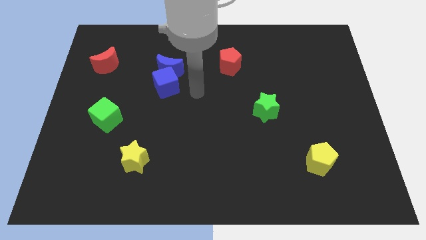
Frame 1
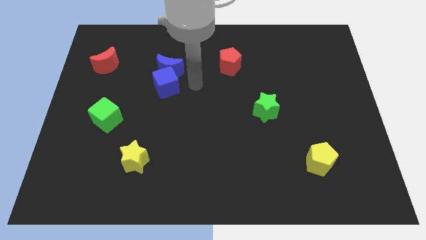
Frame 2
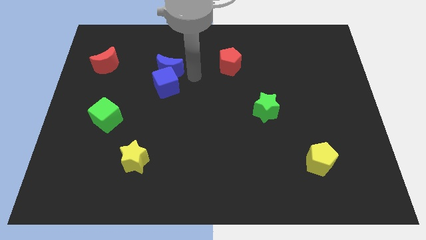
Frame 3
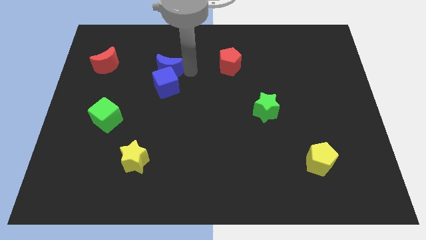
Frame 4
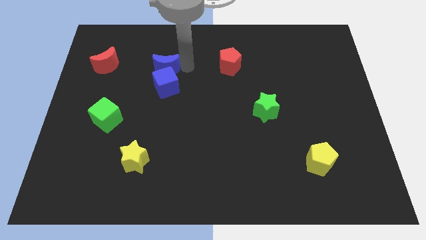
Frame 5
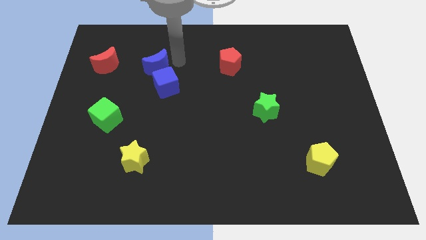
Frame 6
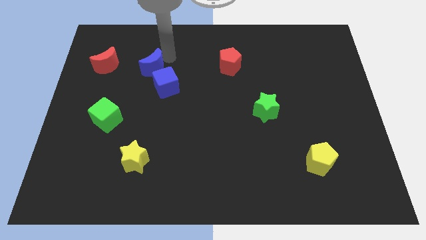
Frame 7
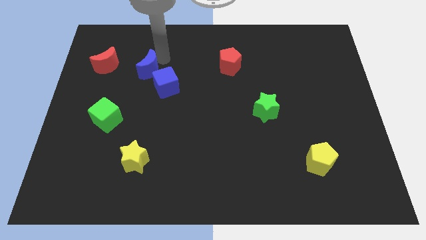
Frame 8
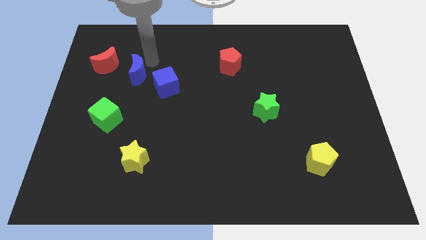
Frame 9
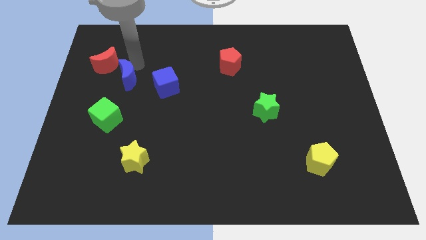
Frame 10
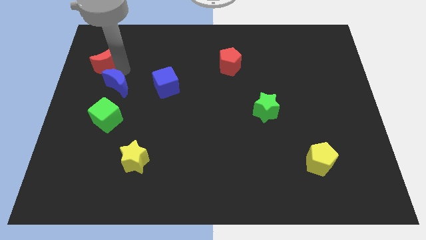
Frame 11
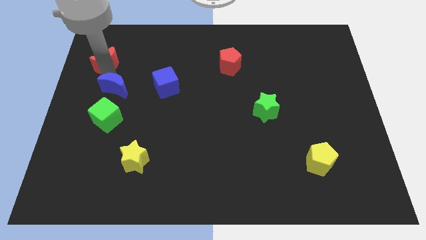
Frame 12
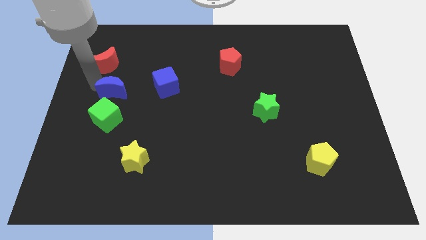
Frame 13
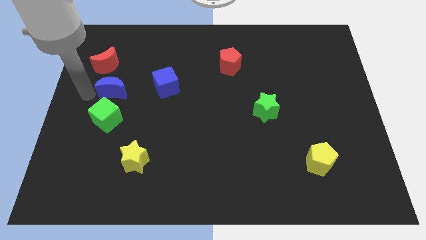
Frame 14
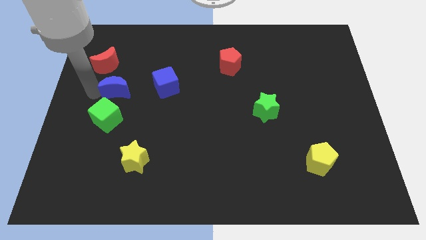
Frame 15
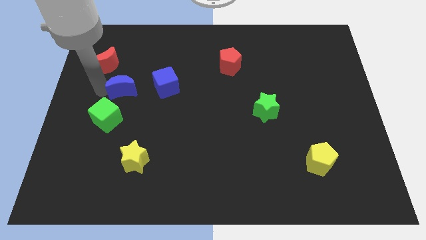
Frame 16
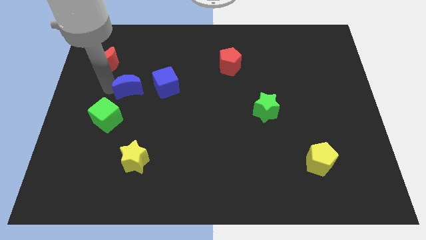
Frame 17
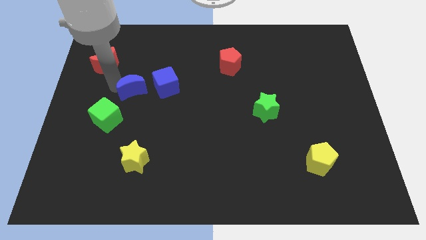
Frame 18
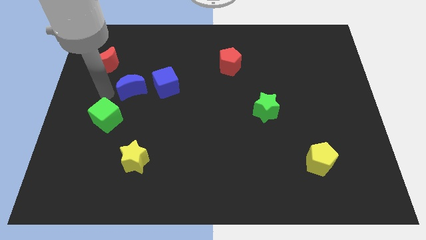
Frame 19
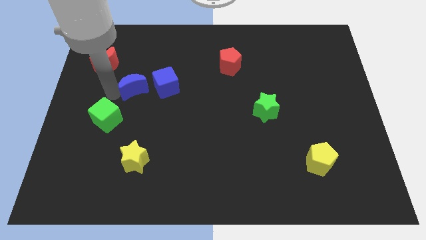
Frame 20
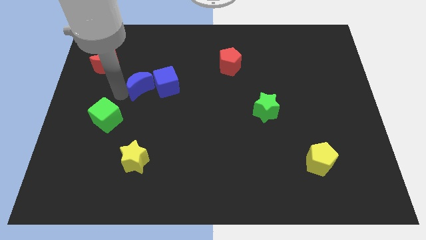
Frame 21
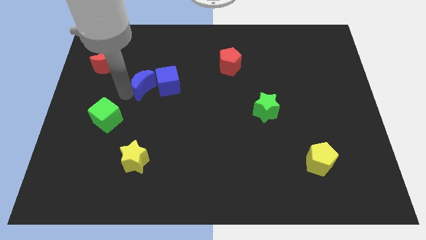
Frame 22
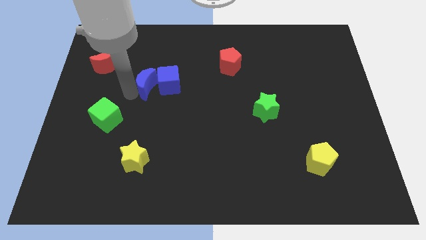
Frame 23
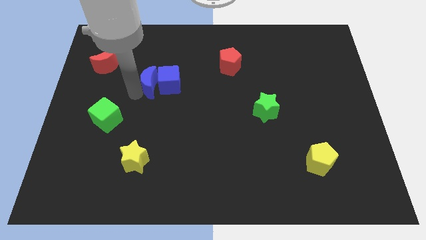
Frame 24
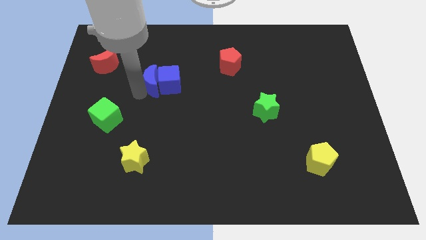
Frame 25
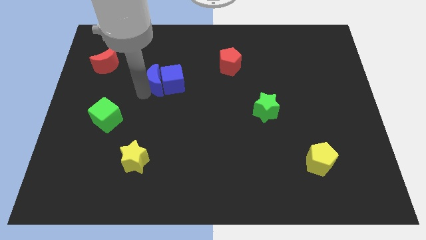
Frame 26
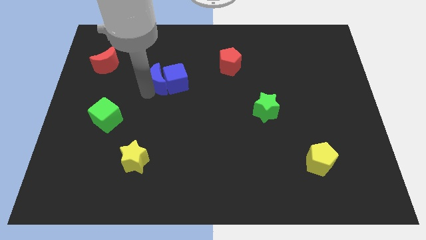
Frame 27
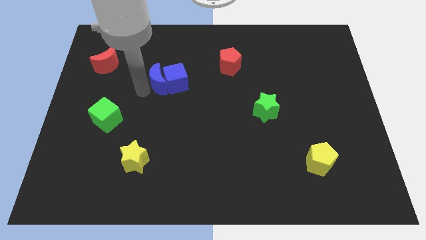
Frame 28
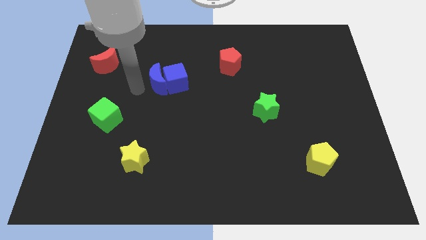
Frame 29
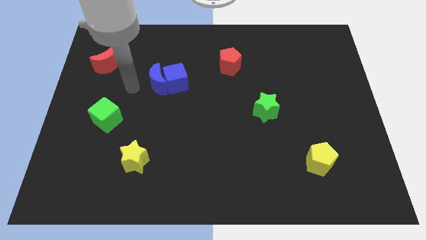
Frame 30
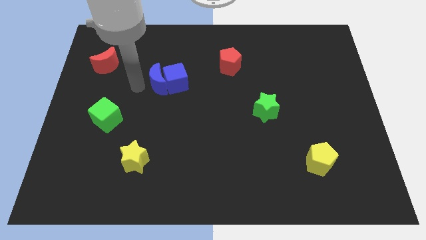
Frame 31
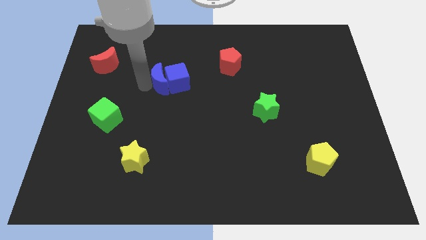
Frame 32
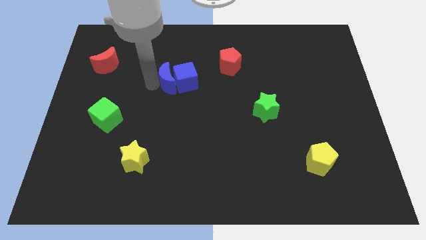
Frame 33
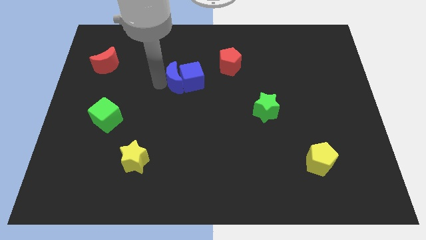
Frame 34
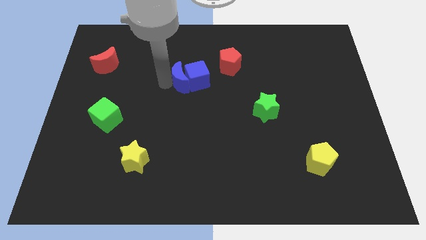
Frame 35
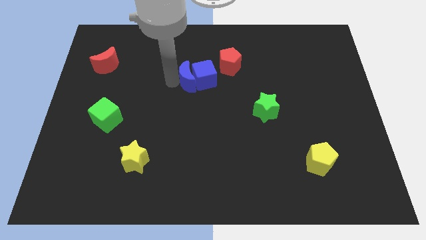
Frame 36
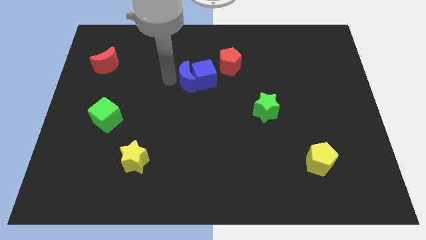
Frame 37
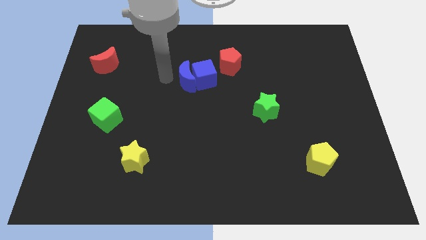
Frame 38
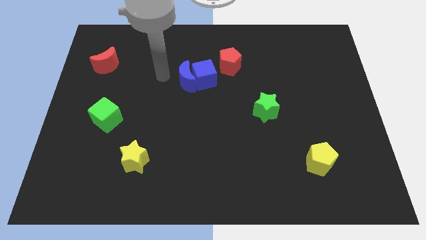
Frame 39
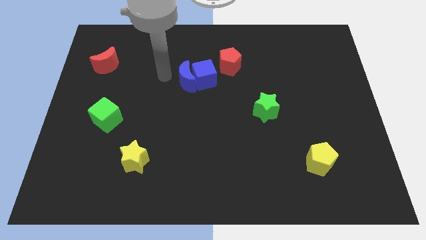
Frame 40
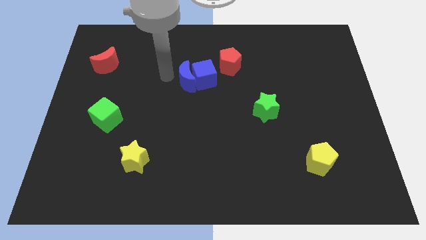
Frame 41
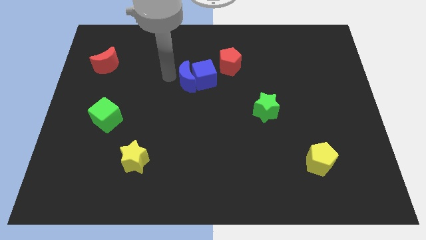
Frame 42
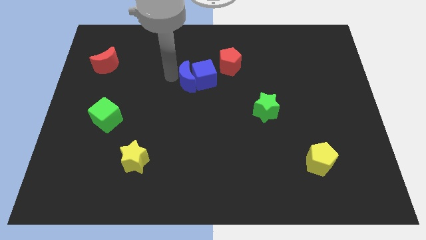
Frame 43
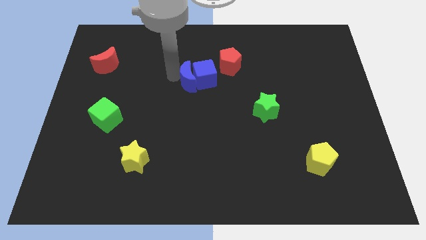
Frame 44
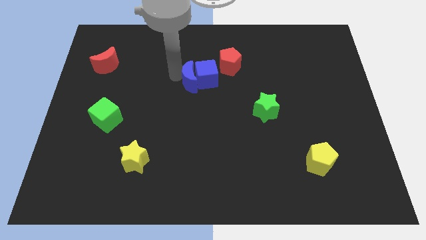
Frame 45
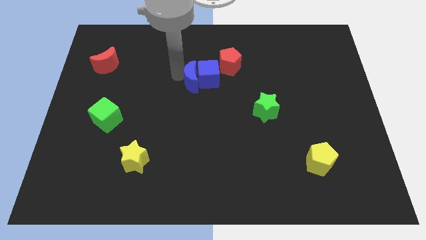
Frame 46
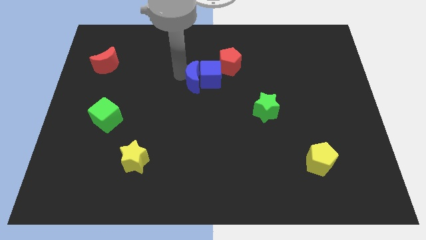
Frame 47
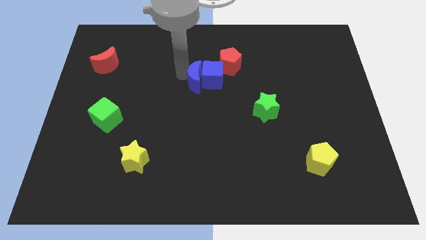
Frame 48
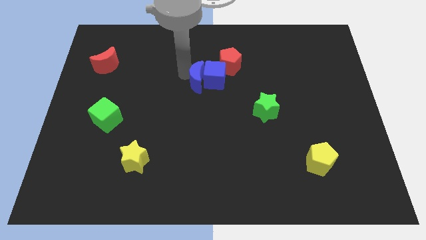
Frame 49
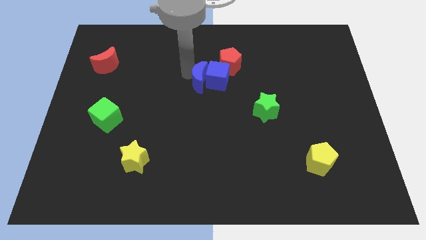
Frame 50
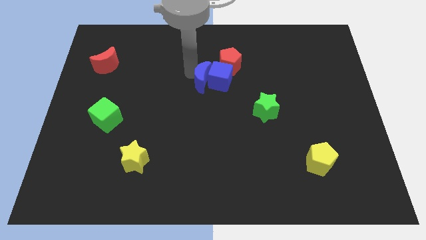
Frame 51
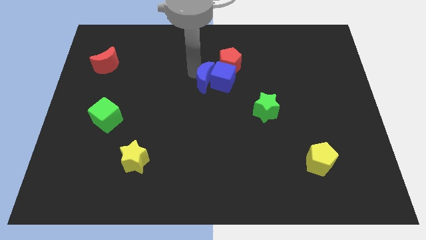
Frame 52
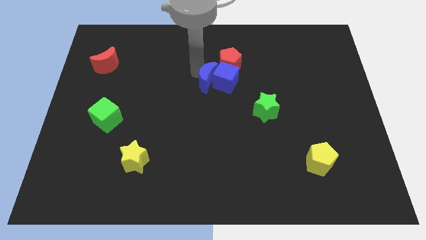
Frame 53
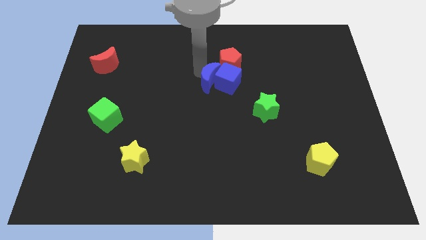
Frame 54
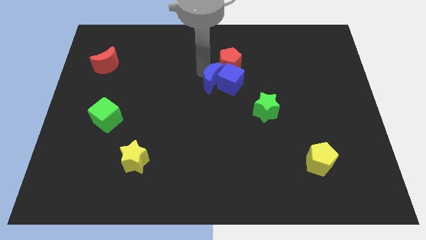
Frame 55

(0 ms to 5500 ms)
slide the blue moon below the red pentagon

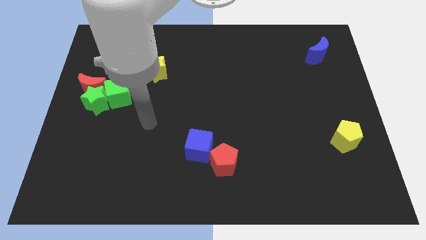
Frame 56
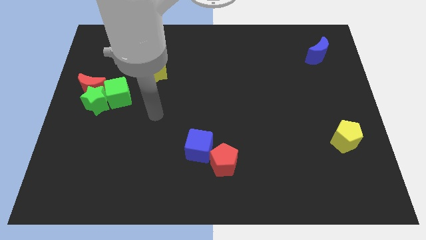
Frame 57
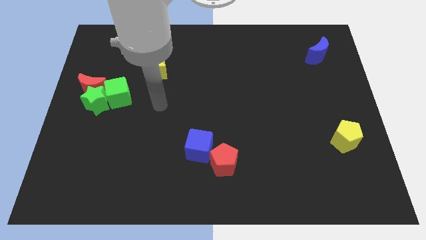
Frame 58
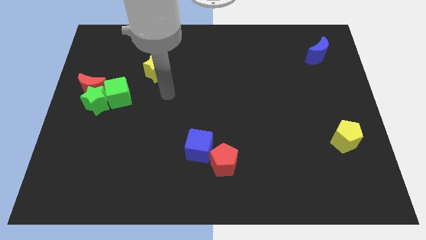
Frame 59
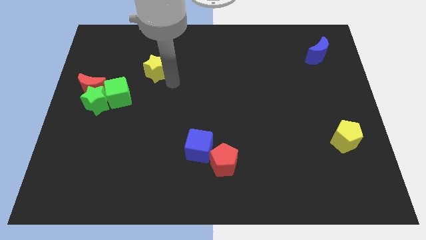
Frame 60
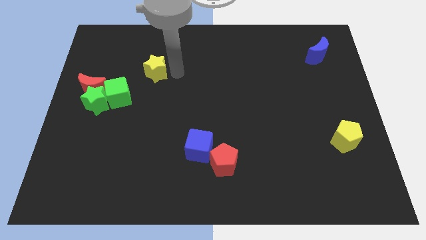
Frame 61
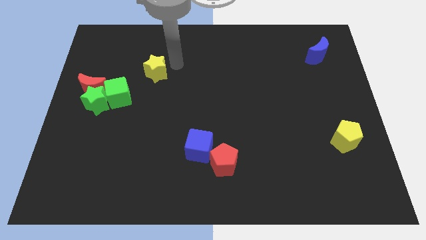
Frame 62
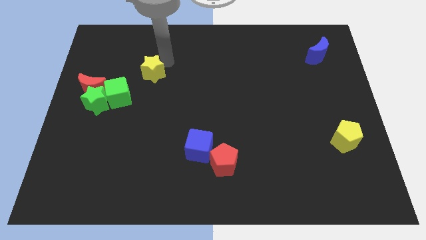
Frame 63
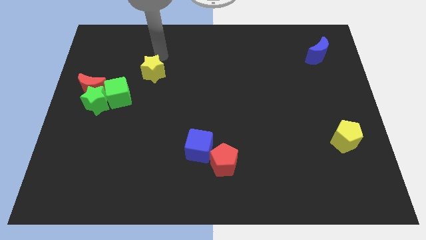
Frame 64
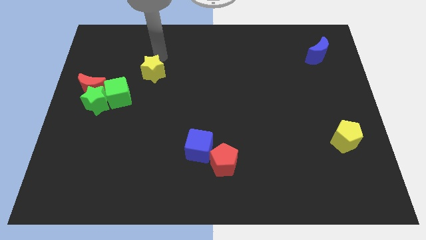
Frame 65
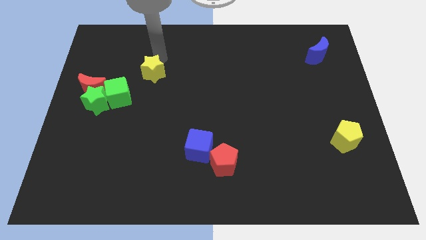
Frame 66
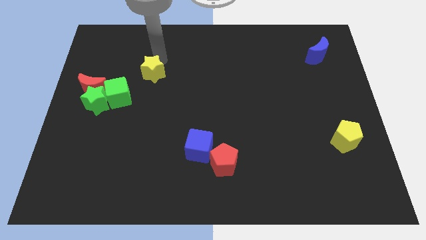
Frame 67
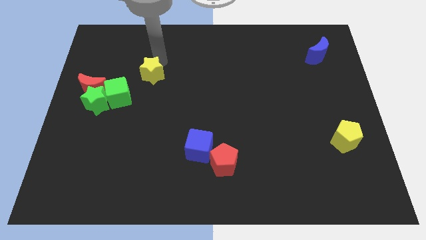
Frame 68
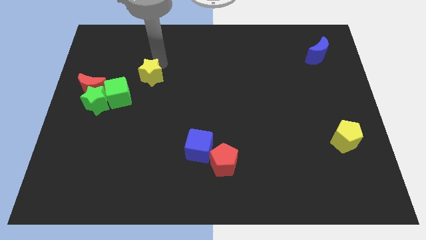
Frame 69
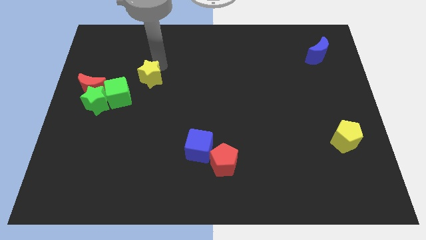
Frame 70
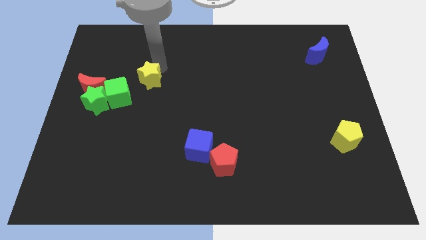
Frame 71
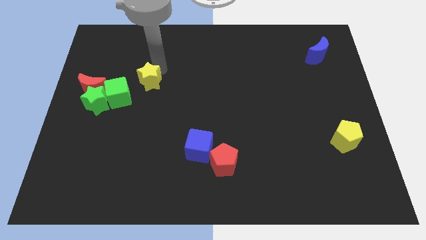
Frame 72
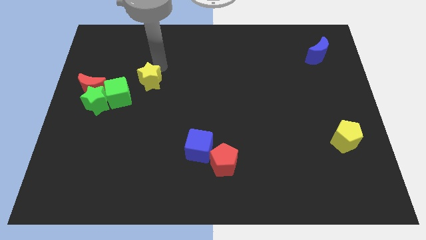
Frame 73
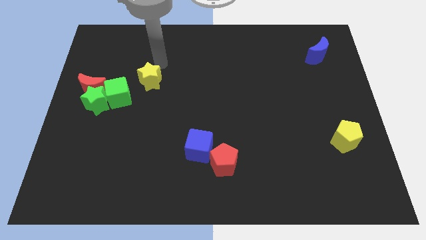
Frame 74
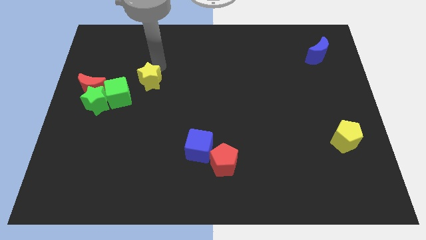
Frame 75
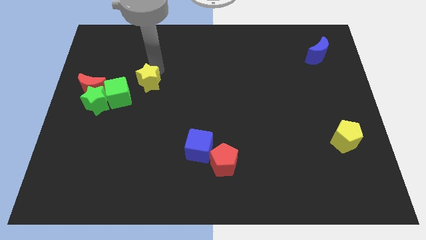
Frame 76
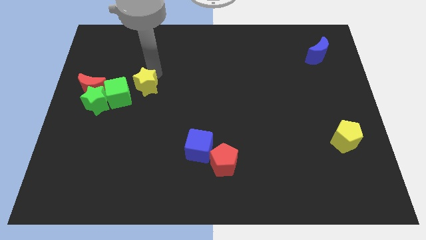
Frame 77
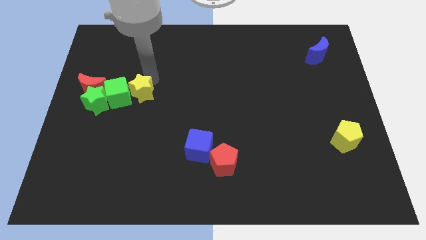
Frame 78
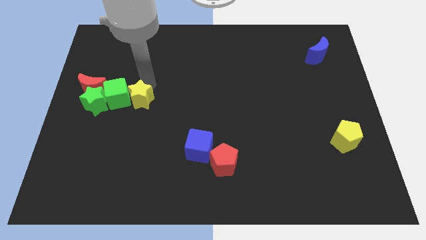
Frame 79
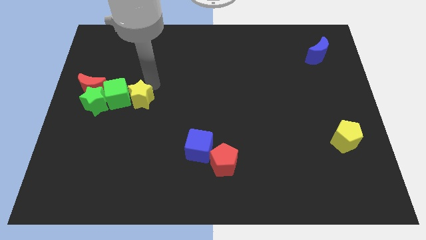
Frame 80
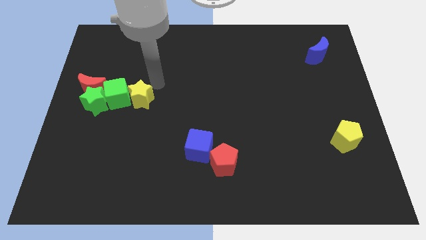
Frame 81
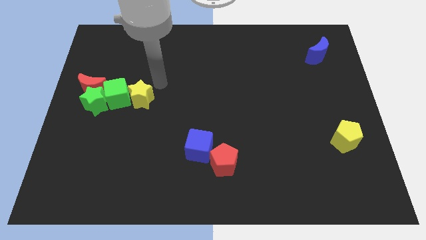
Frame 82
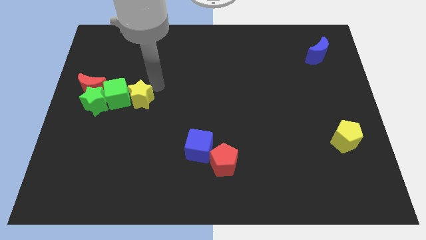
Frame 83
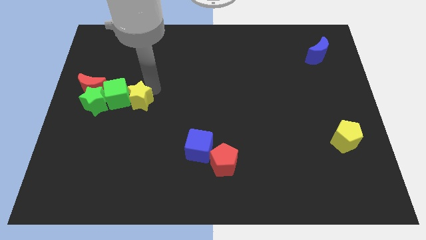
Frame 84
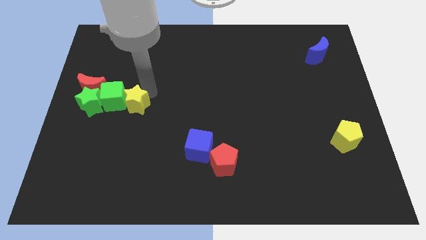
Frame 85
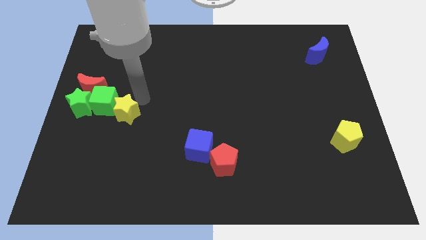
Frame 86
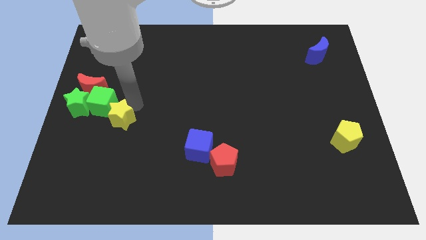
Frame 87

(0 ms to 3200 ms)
slide the yellow star below the green cube
